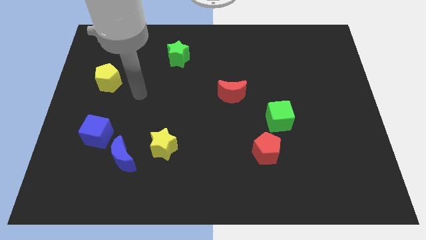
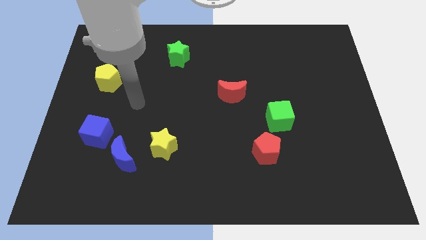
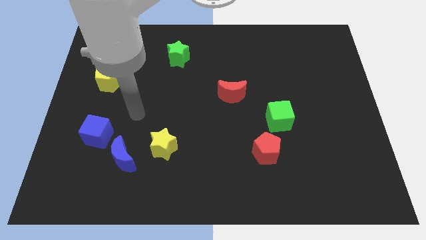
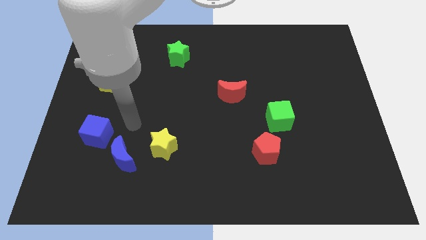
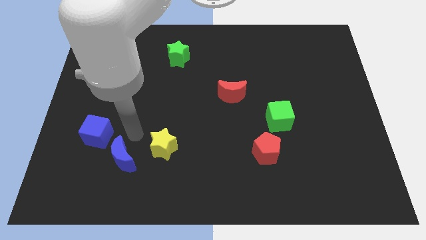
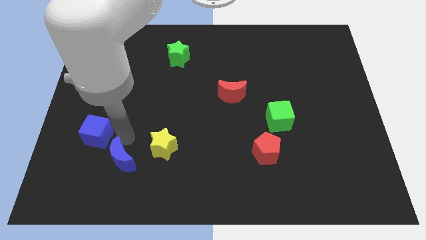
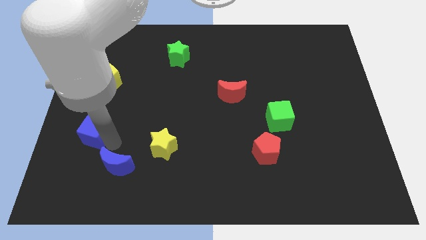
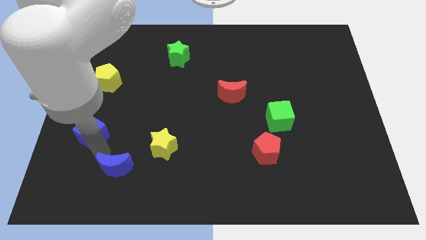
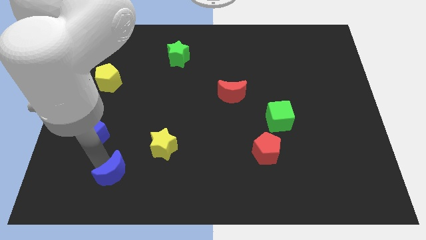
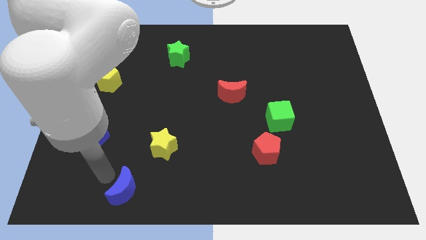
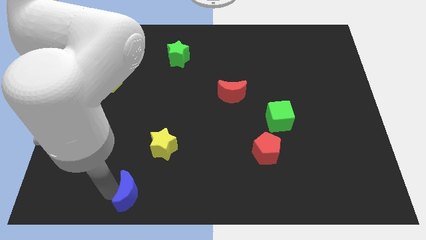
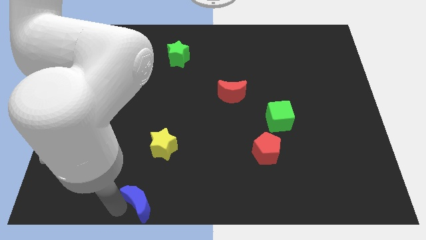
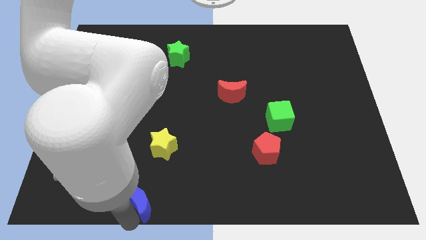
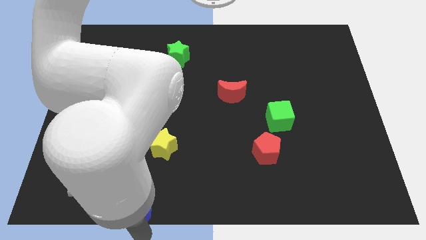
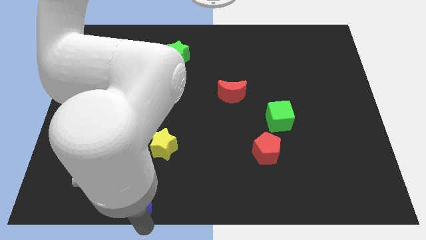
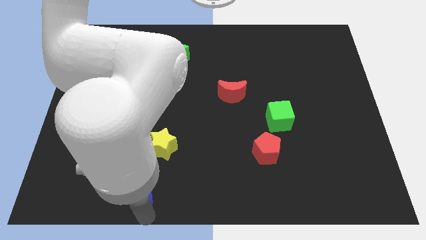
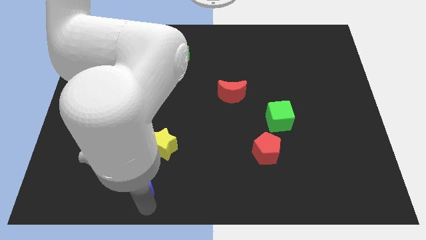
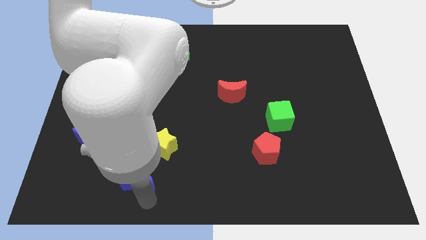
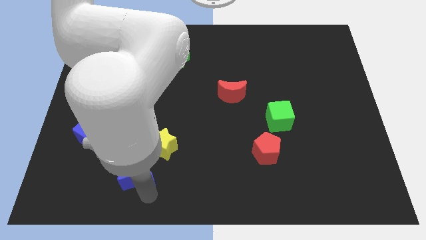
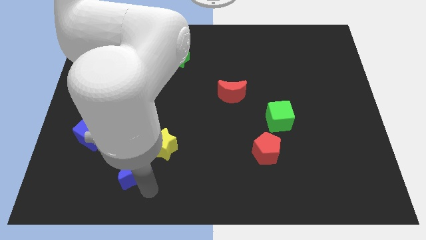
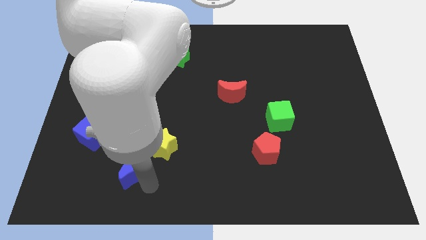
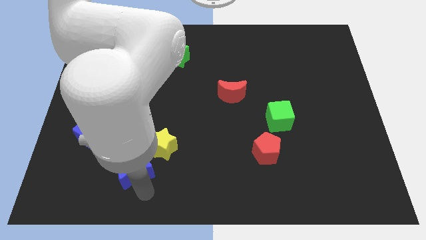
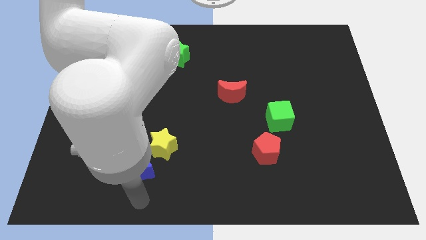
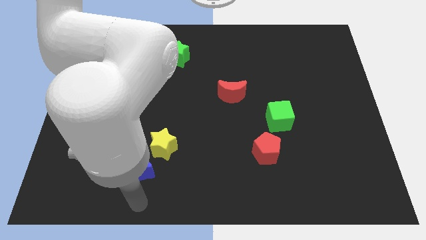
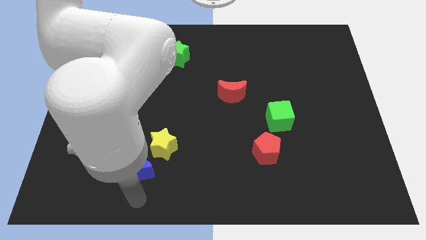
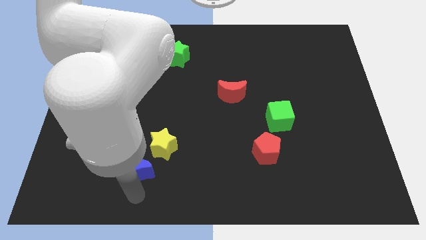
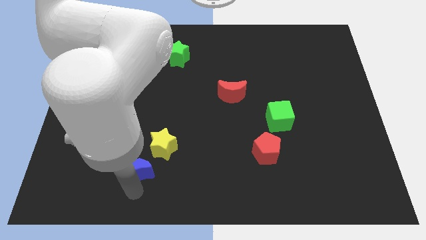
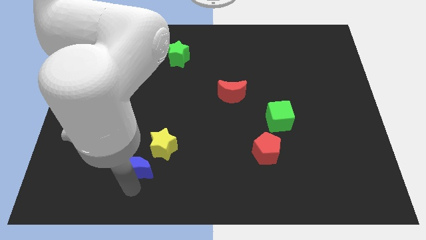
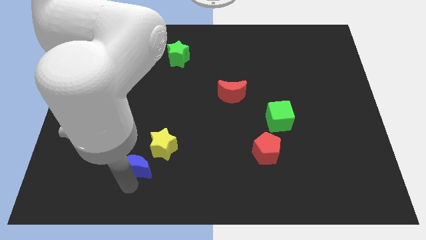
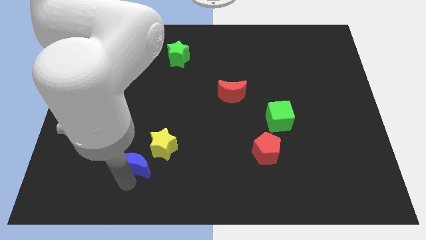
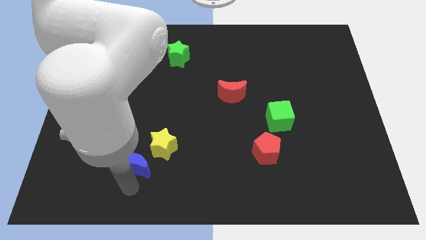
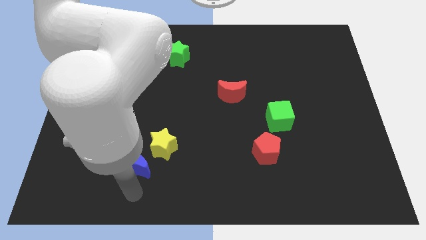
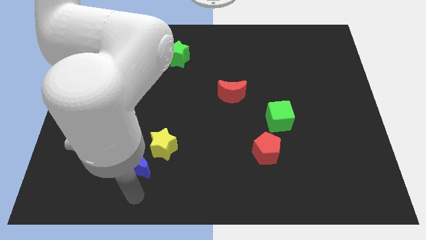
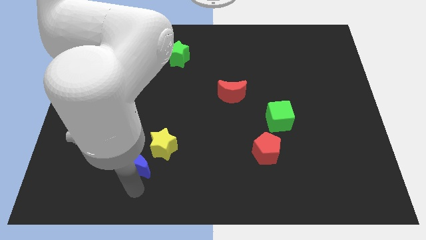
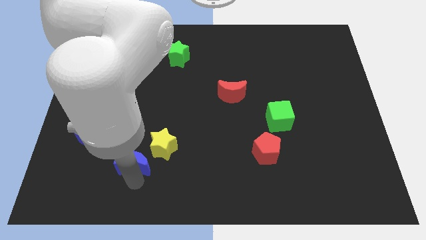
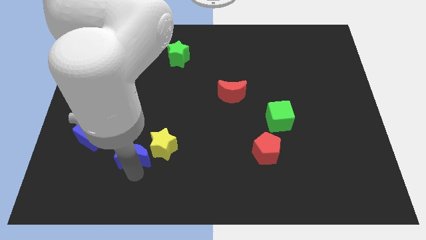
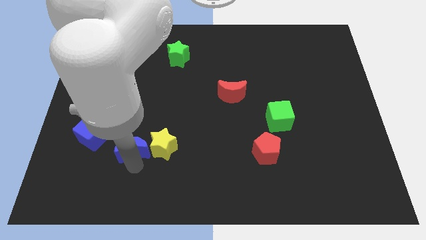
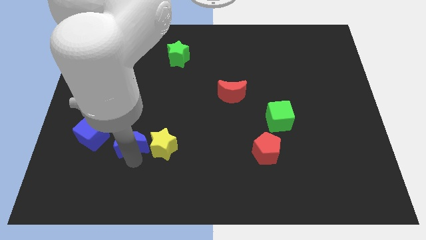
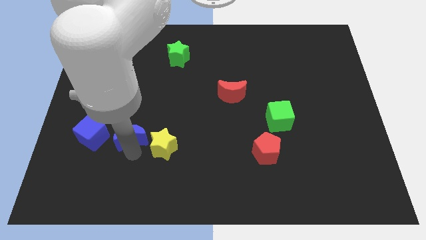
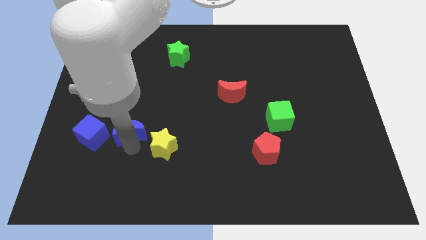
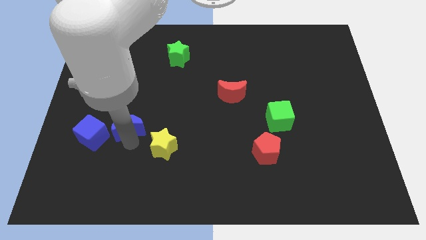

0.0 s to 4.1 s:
slightly push the blue moon up

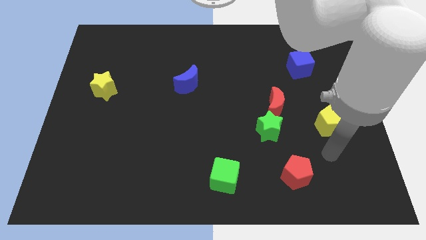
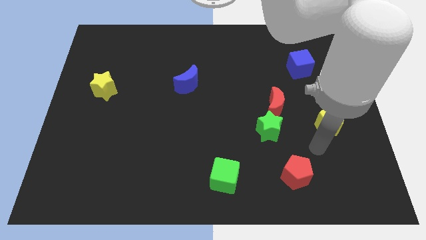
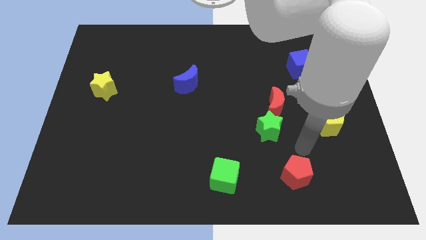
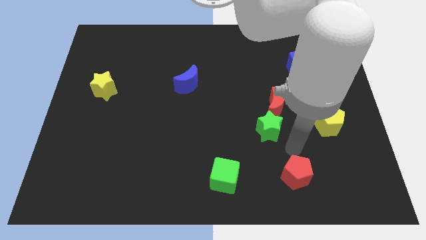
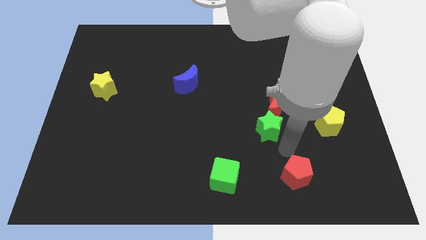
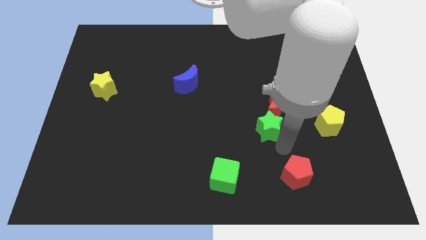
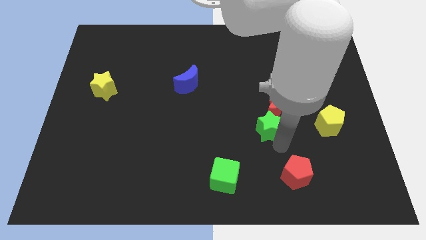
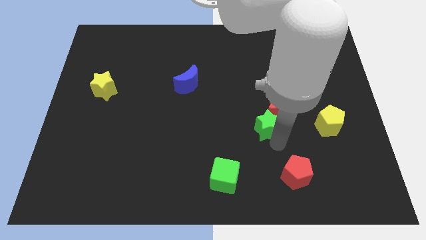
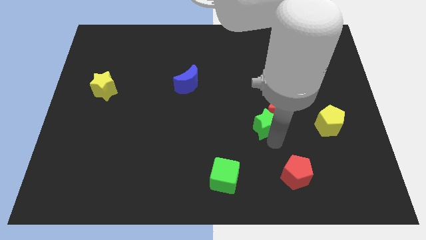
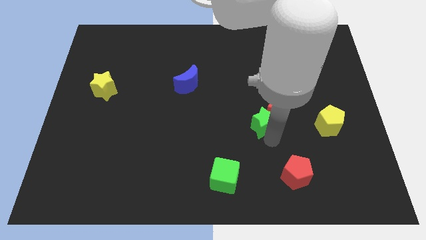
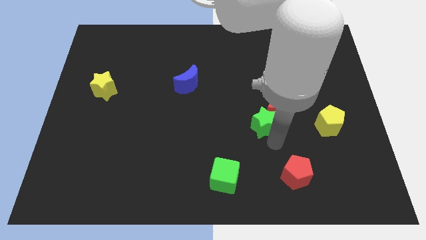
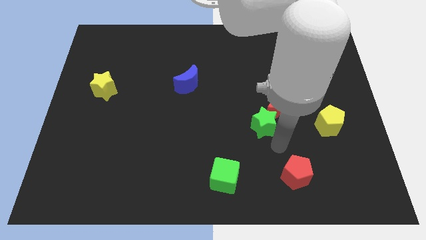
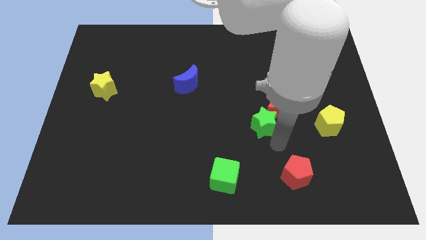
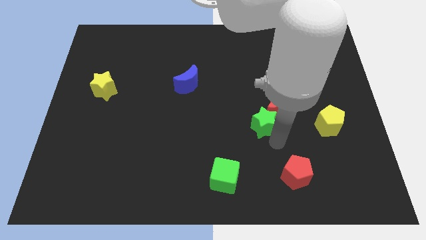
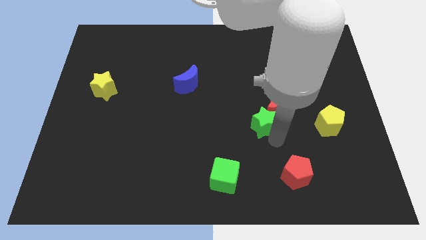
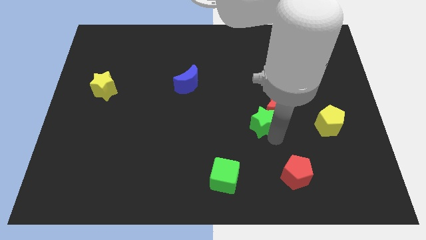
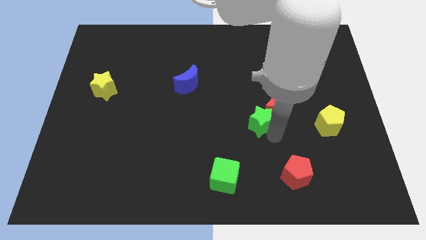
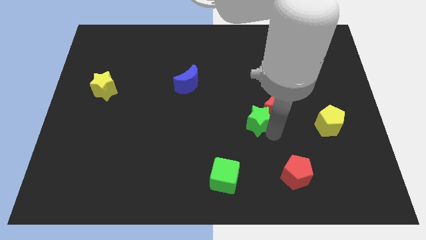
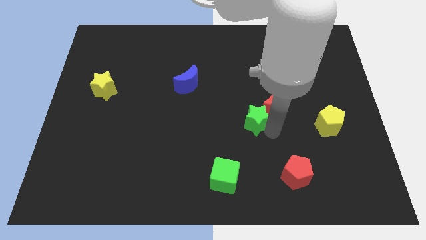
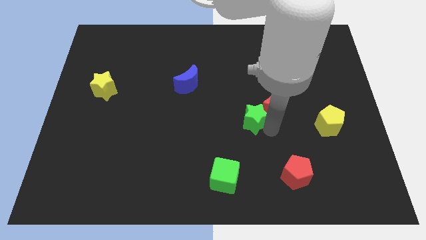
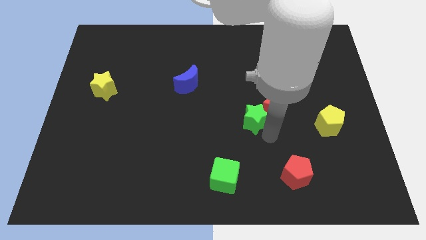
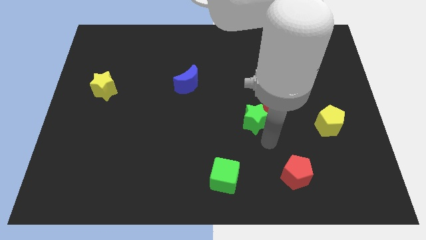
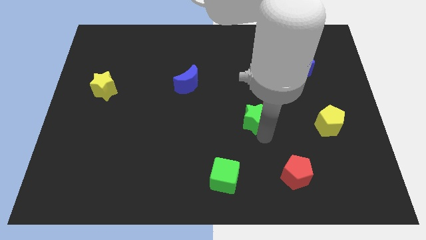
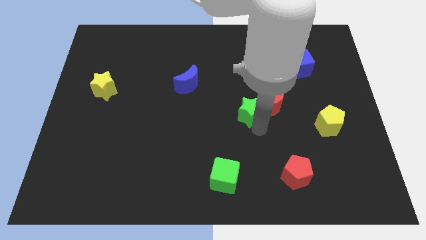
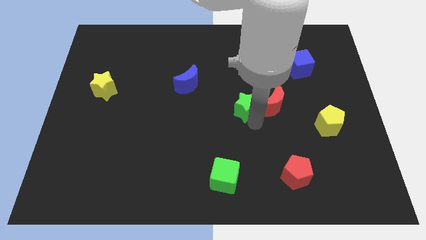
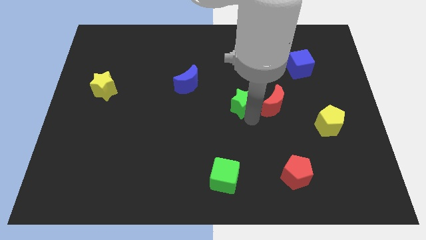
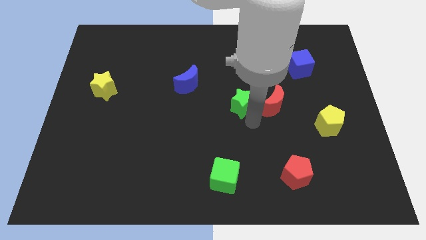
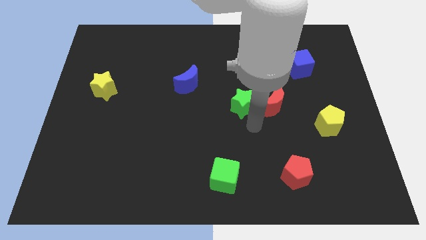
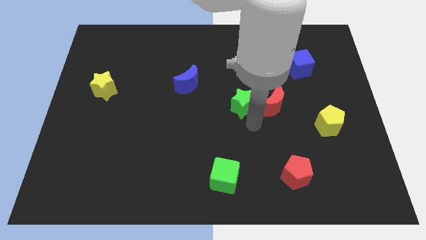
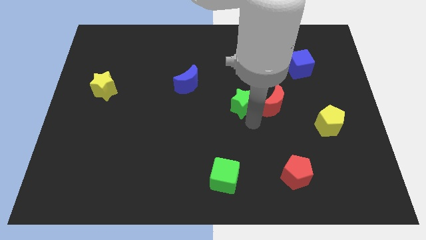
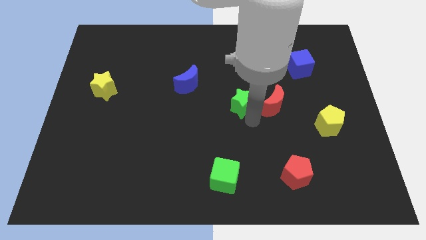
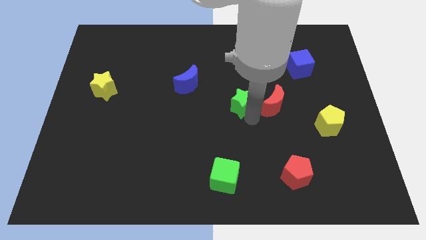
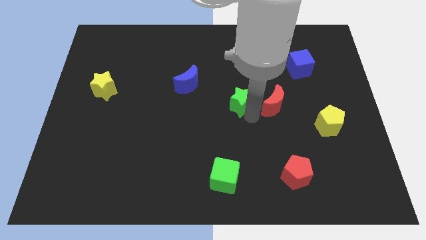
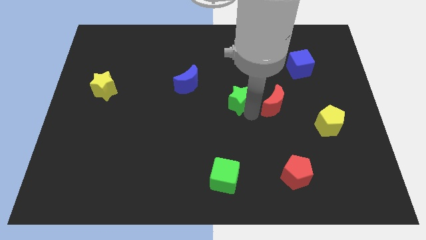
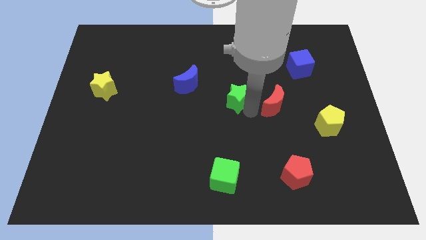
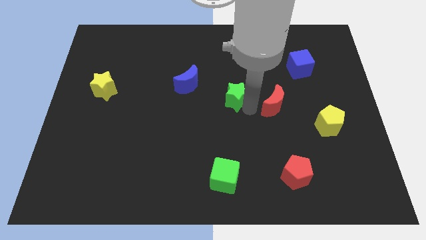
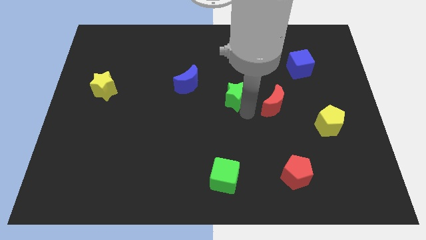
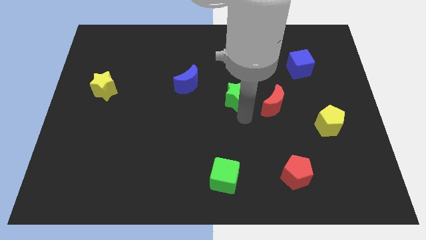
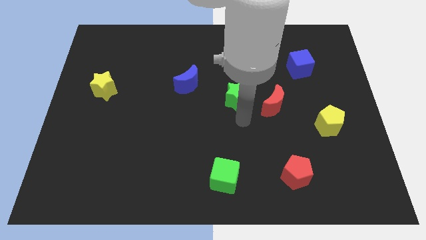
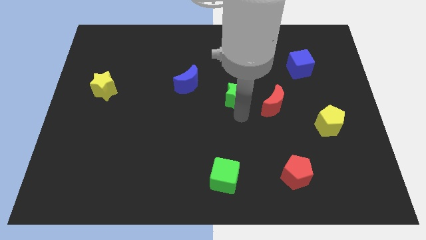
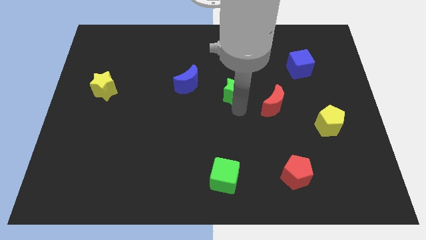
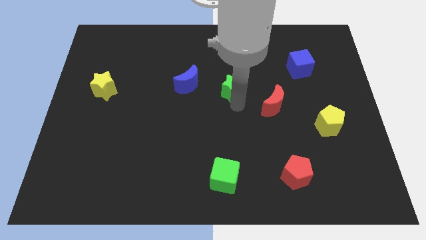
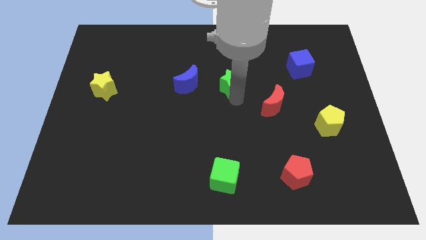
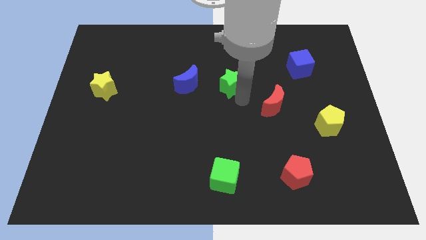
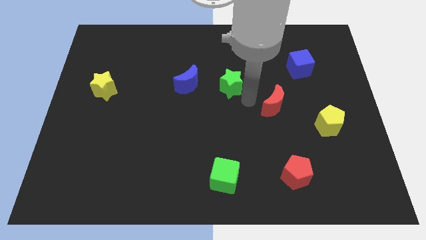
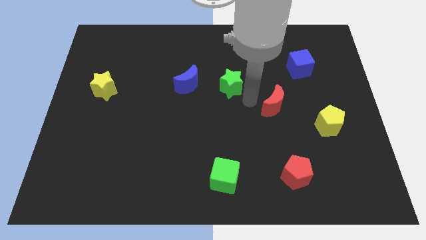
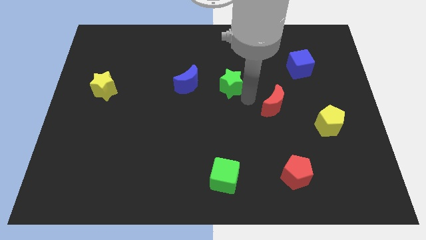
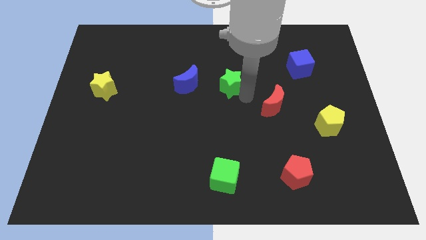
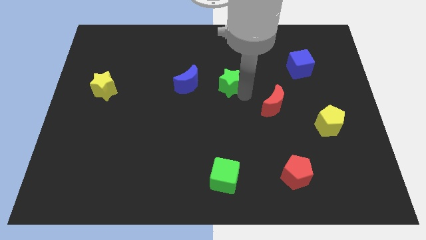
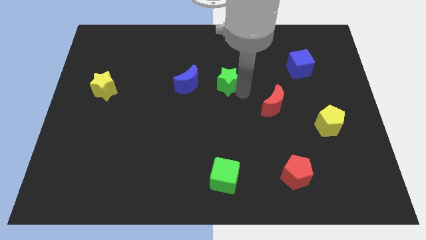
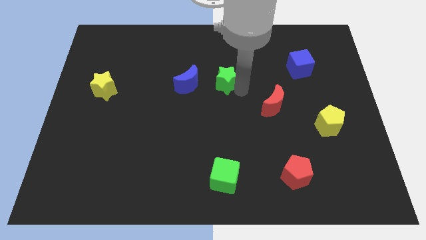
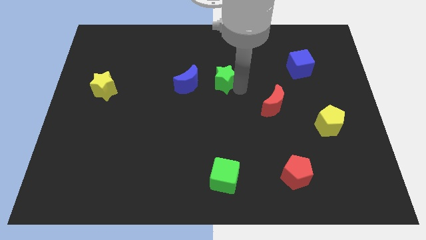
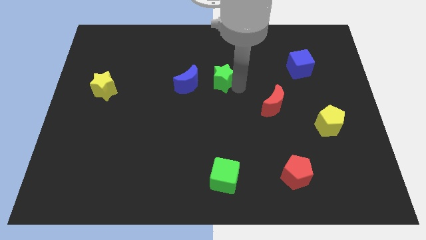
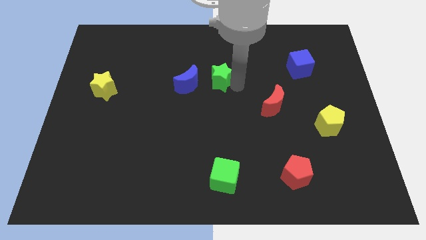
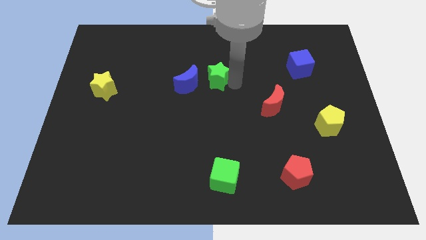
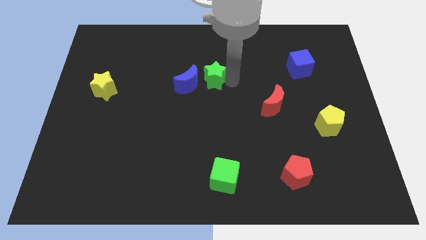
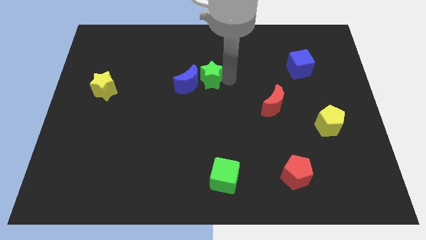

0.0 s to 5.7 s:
move the green star up and left
